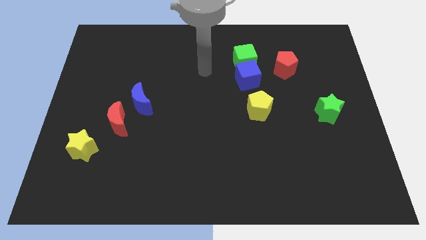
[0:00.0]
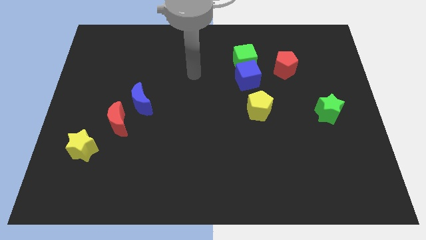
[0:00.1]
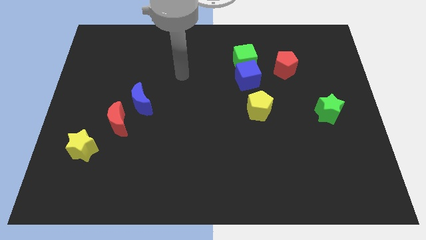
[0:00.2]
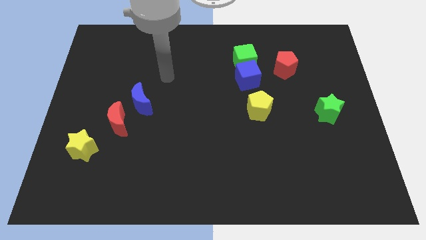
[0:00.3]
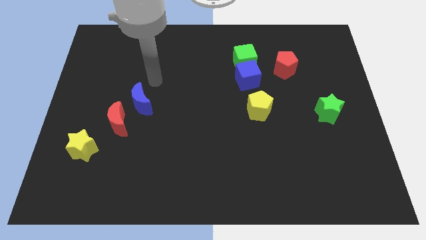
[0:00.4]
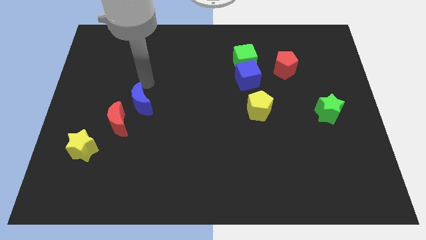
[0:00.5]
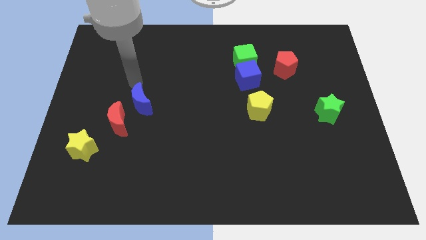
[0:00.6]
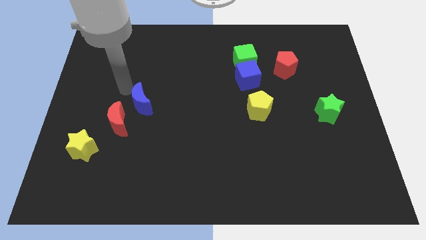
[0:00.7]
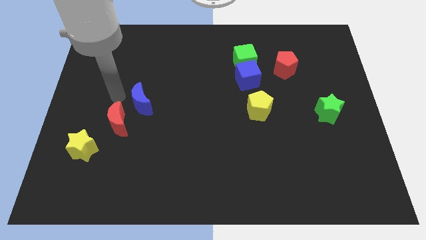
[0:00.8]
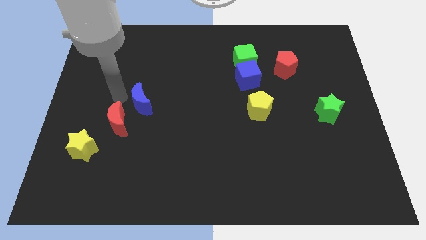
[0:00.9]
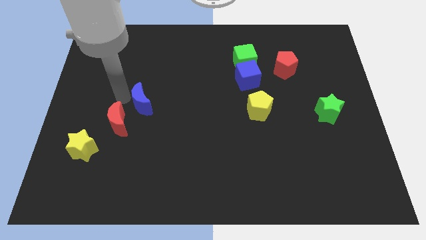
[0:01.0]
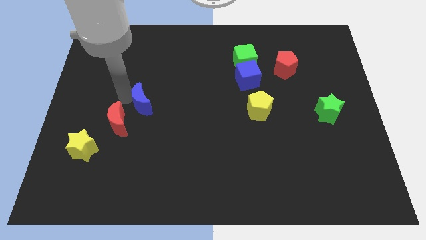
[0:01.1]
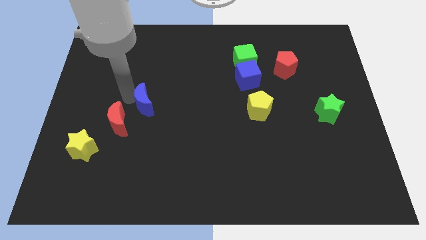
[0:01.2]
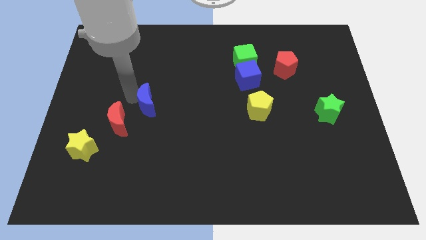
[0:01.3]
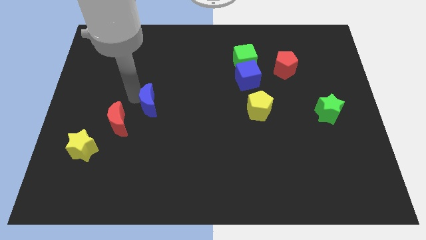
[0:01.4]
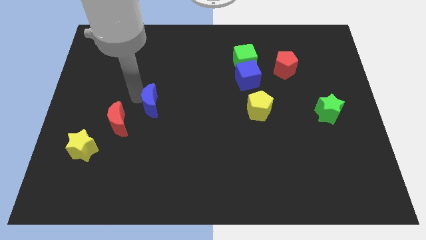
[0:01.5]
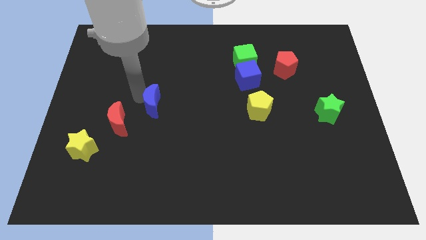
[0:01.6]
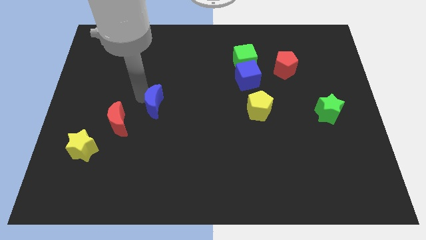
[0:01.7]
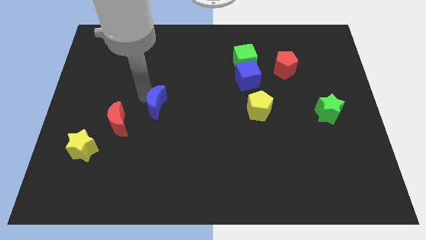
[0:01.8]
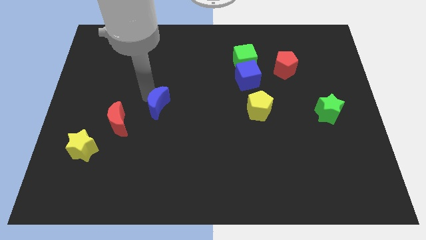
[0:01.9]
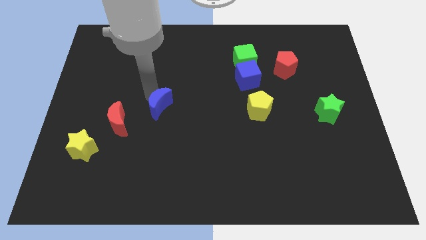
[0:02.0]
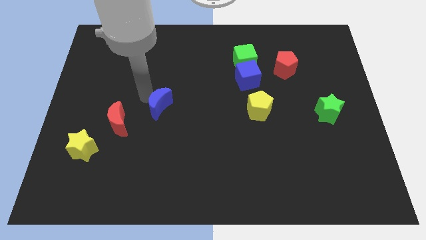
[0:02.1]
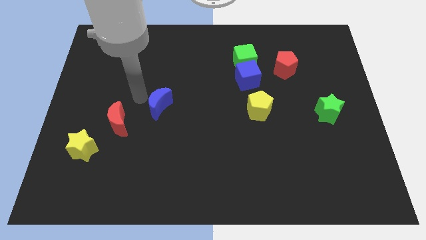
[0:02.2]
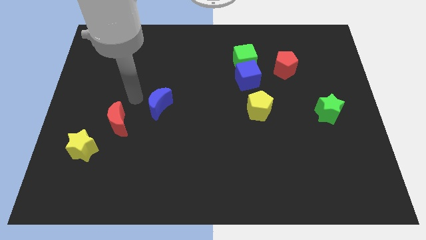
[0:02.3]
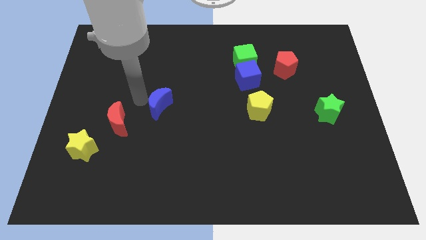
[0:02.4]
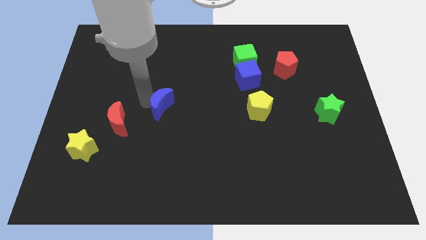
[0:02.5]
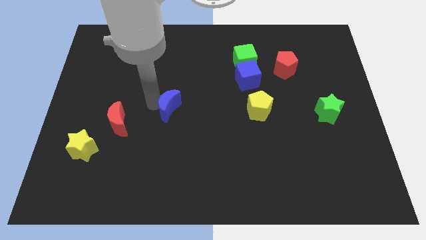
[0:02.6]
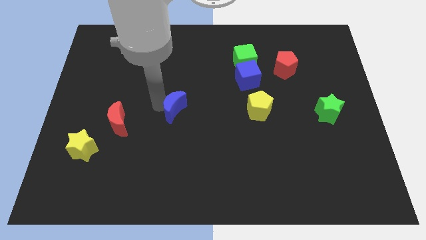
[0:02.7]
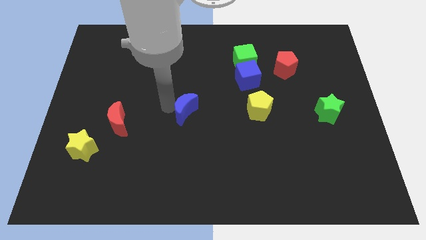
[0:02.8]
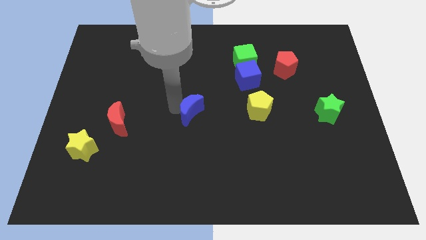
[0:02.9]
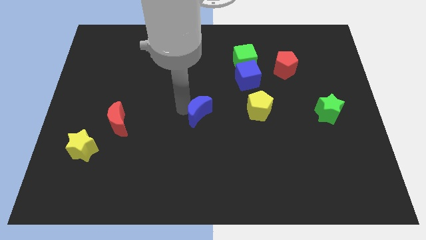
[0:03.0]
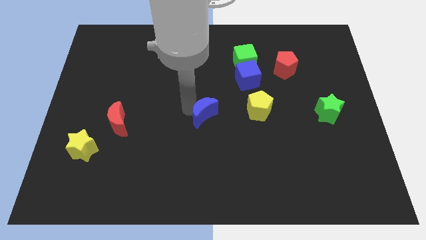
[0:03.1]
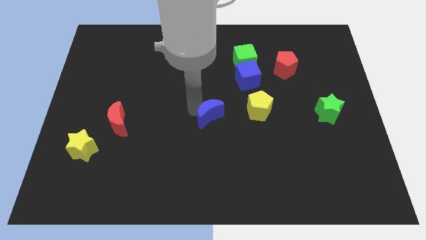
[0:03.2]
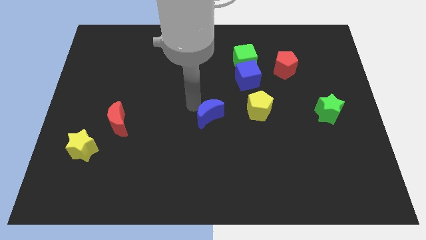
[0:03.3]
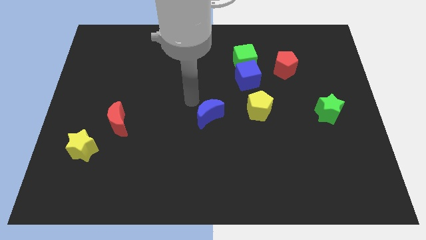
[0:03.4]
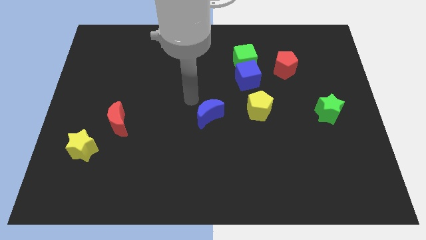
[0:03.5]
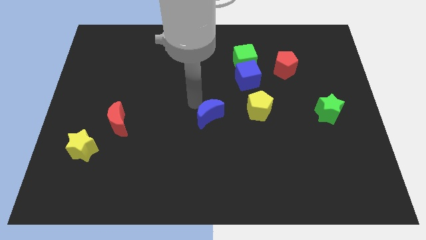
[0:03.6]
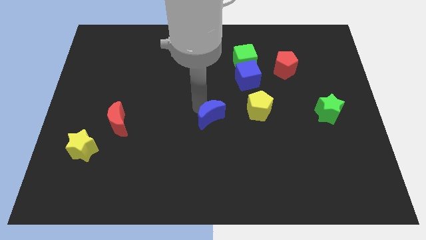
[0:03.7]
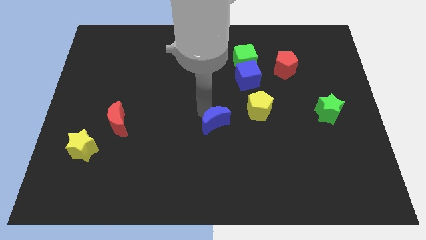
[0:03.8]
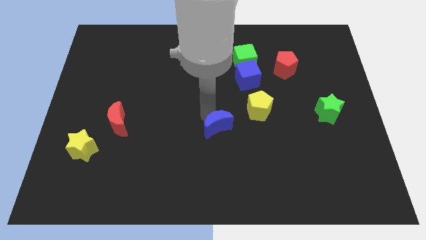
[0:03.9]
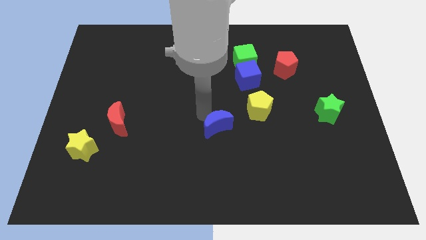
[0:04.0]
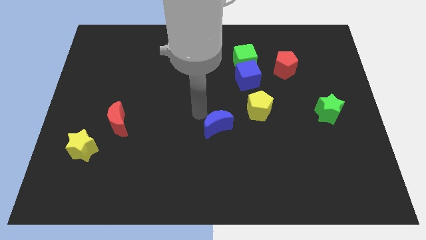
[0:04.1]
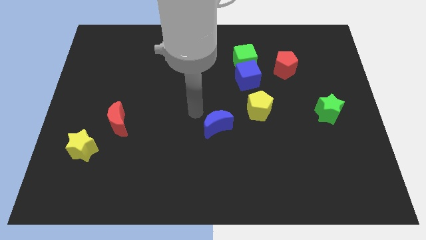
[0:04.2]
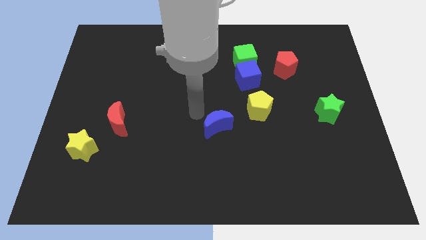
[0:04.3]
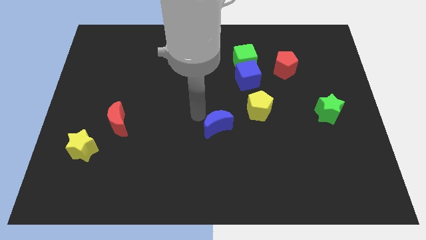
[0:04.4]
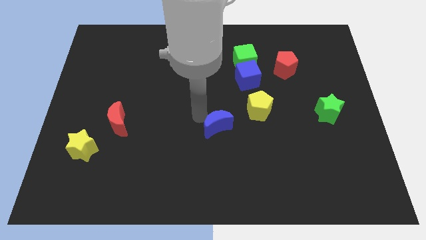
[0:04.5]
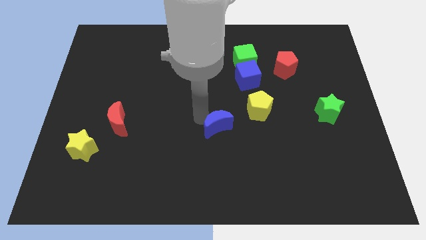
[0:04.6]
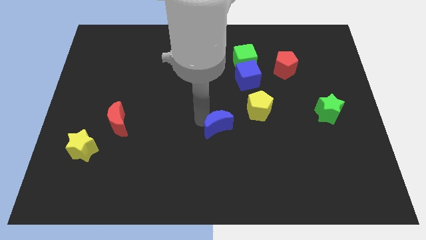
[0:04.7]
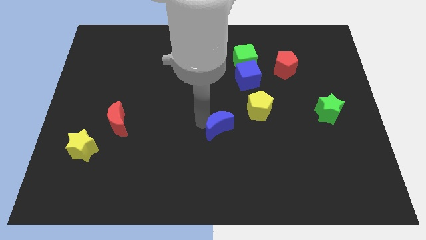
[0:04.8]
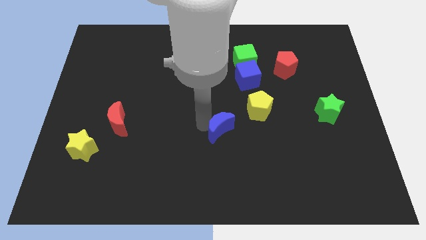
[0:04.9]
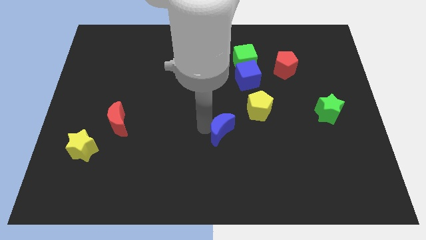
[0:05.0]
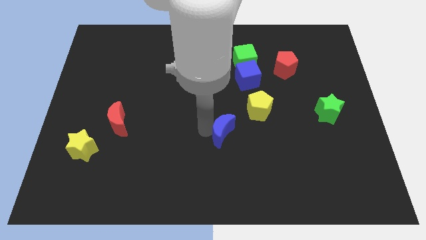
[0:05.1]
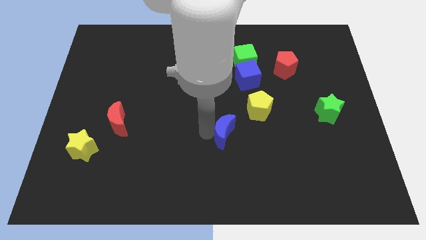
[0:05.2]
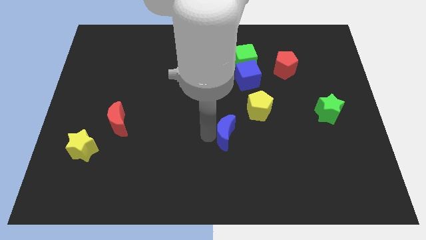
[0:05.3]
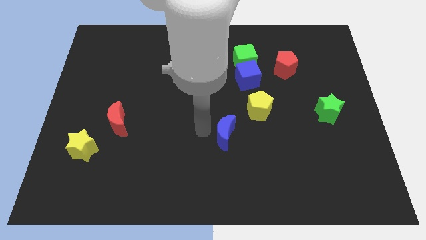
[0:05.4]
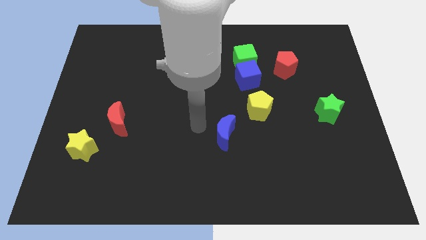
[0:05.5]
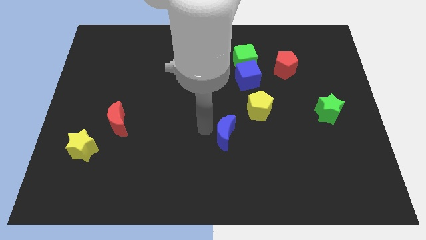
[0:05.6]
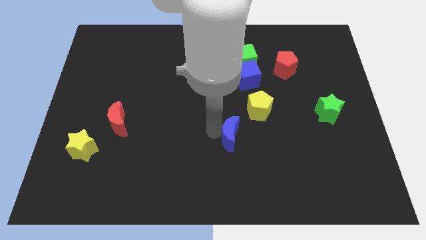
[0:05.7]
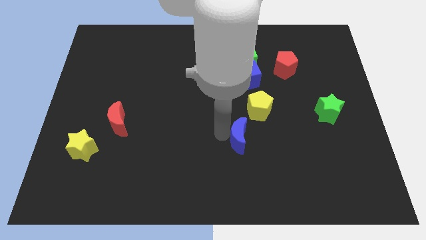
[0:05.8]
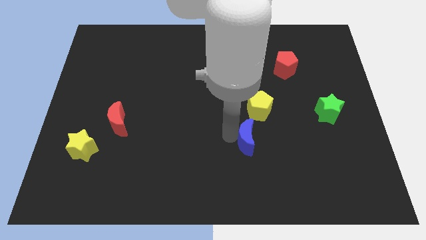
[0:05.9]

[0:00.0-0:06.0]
put the blue moon to the bottom of the yellow pentagon

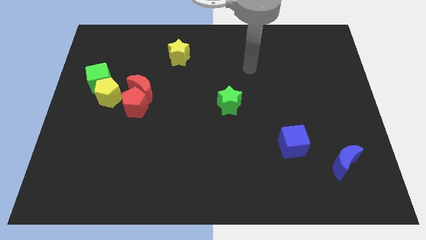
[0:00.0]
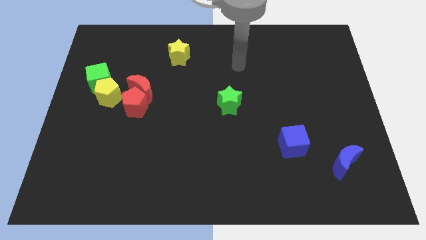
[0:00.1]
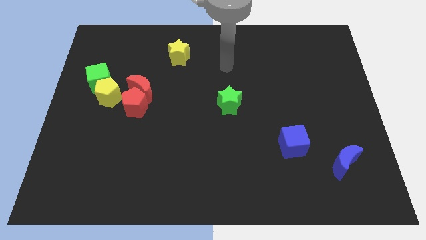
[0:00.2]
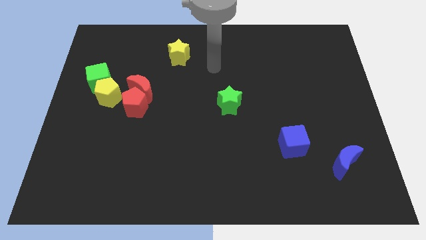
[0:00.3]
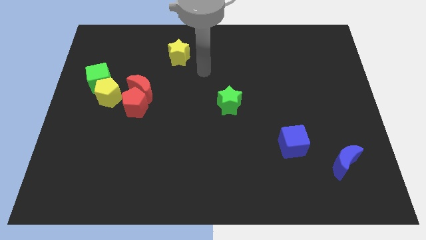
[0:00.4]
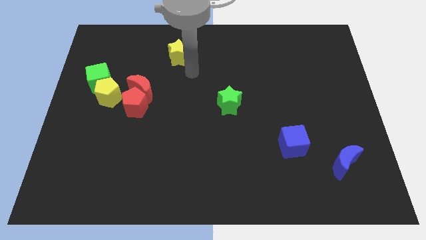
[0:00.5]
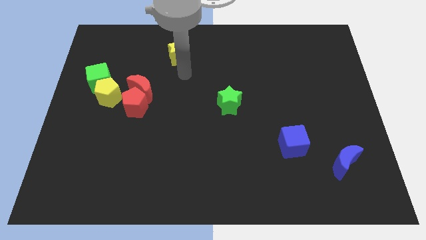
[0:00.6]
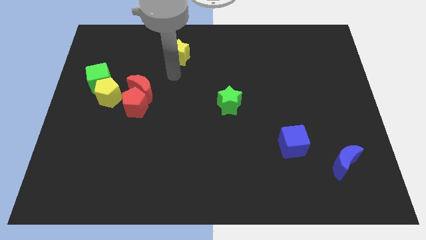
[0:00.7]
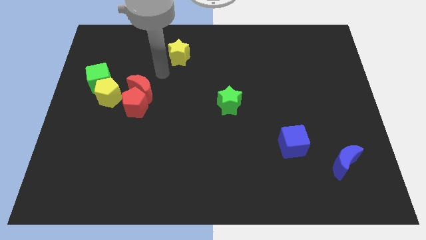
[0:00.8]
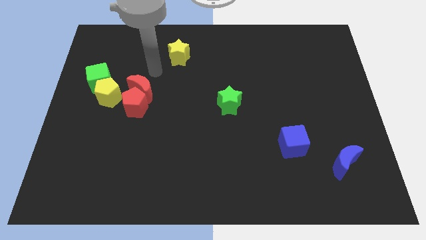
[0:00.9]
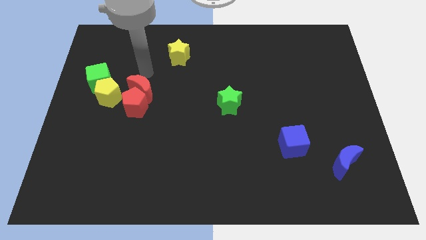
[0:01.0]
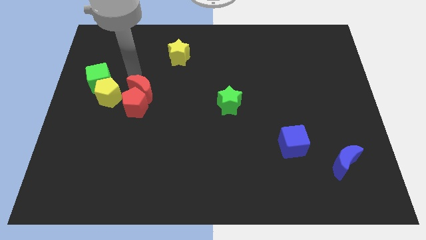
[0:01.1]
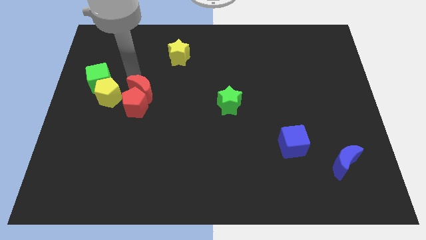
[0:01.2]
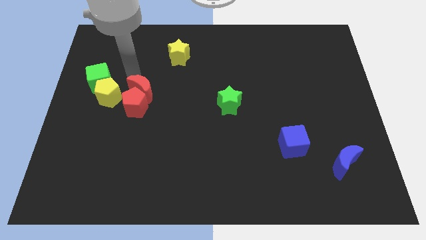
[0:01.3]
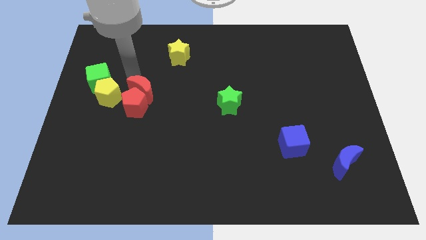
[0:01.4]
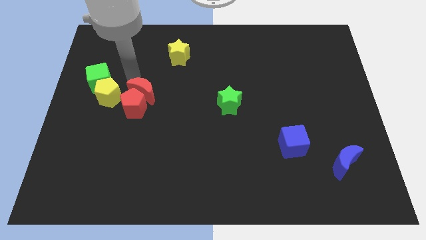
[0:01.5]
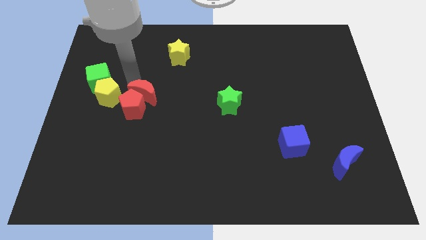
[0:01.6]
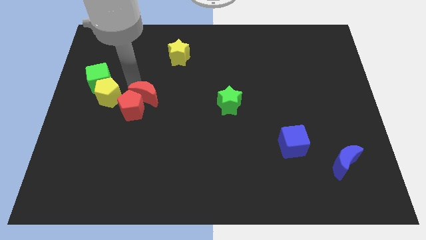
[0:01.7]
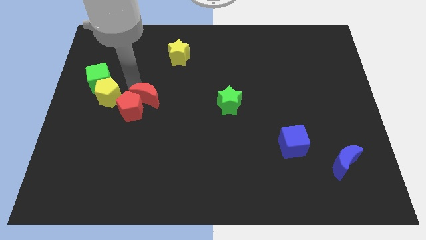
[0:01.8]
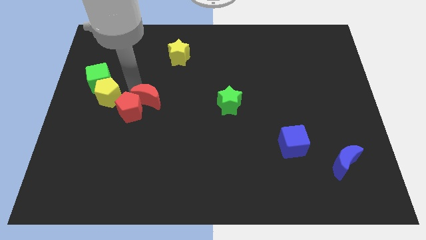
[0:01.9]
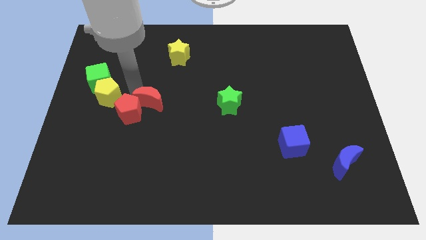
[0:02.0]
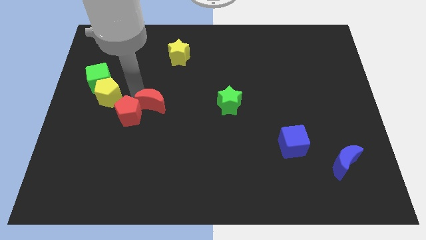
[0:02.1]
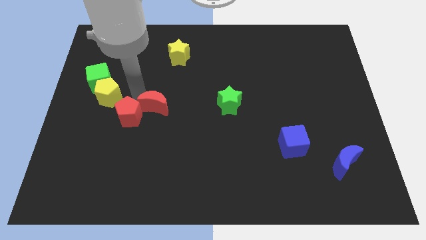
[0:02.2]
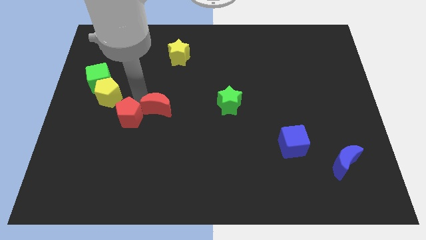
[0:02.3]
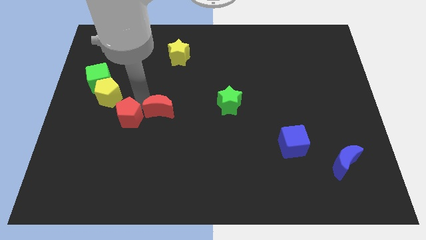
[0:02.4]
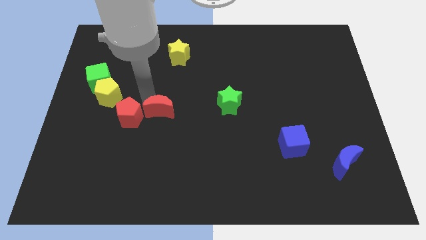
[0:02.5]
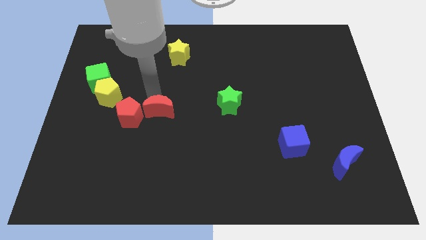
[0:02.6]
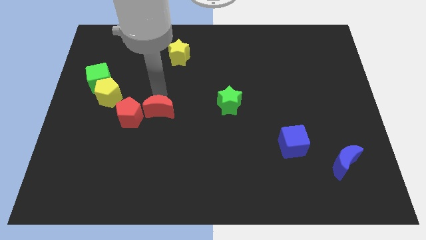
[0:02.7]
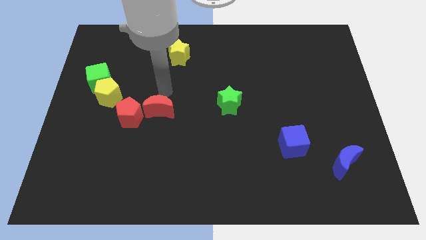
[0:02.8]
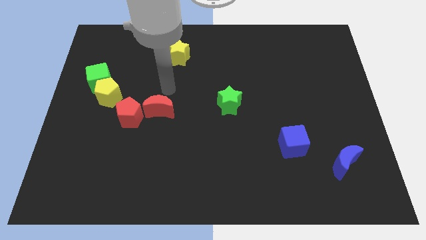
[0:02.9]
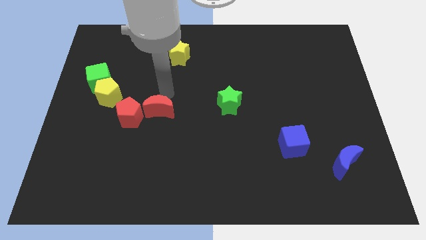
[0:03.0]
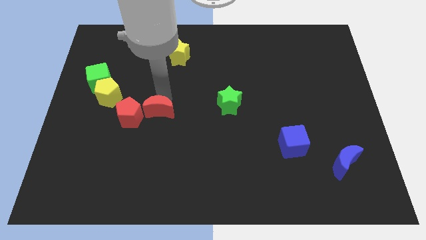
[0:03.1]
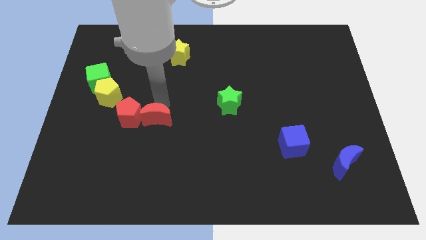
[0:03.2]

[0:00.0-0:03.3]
push the red moon diagonally down and to the right of the red pentagon
